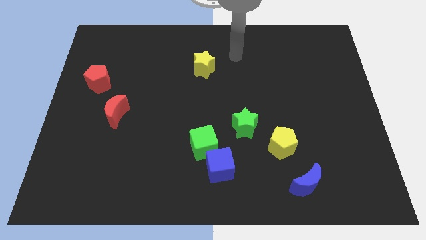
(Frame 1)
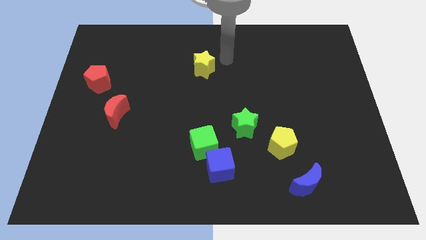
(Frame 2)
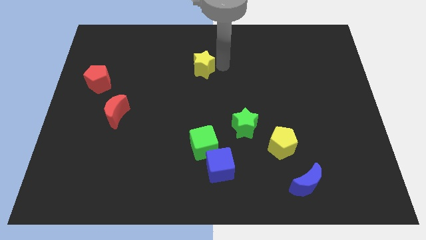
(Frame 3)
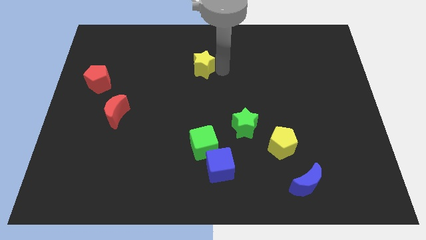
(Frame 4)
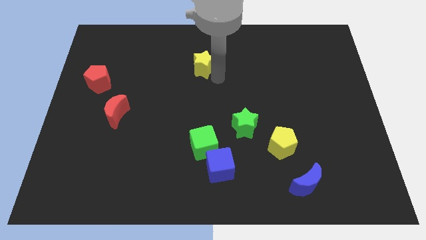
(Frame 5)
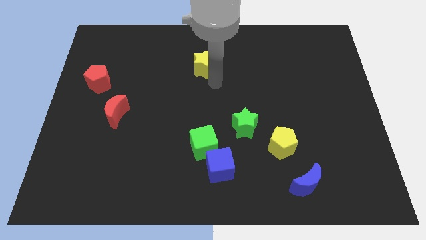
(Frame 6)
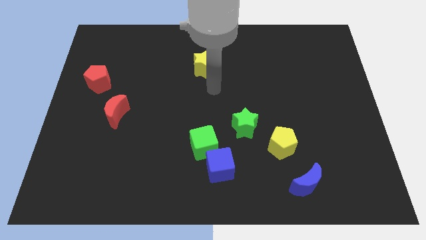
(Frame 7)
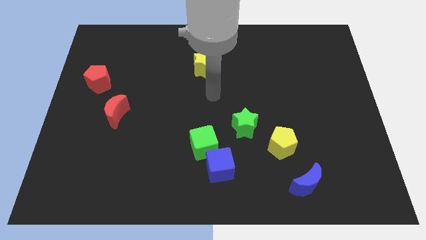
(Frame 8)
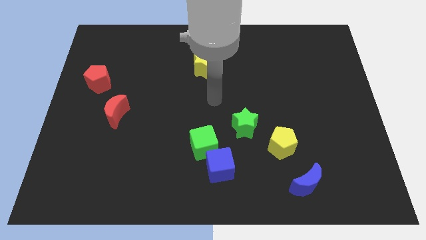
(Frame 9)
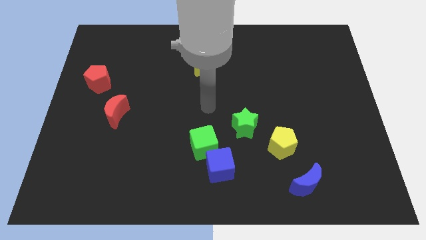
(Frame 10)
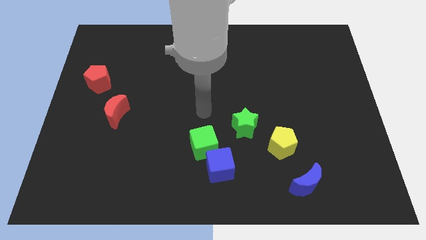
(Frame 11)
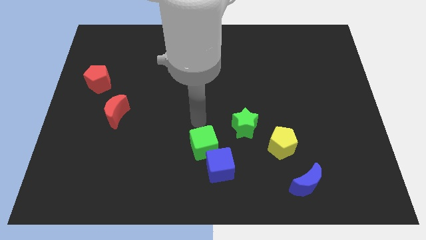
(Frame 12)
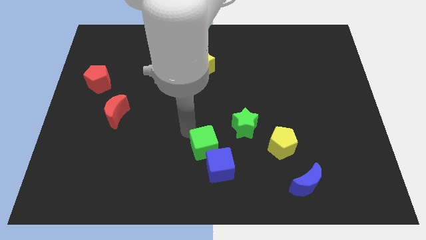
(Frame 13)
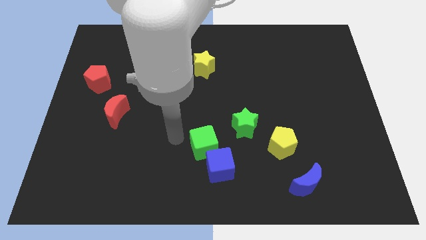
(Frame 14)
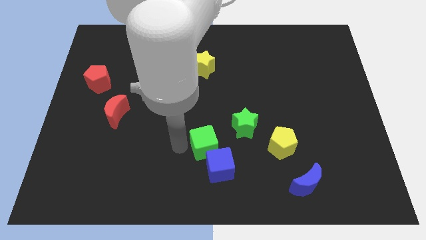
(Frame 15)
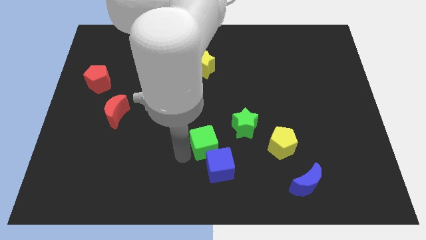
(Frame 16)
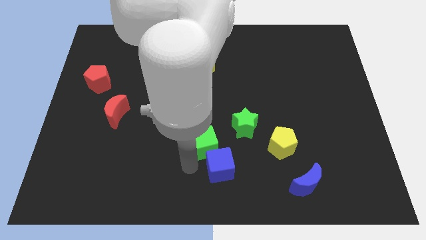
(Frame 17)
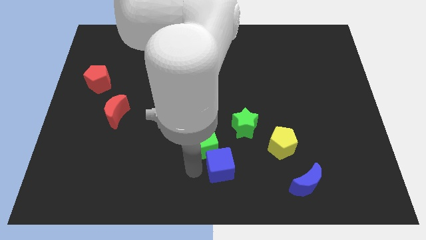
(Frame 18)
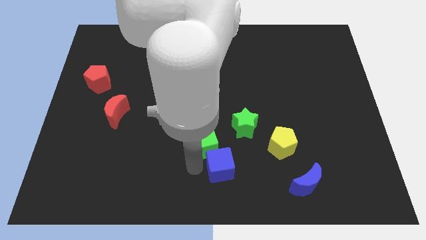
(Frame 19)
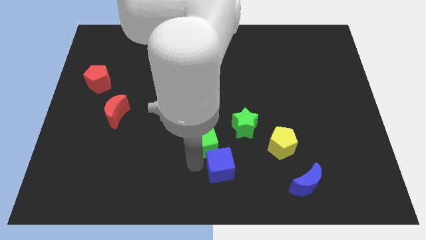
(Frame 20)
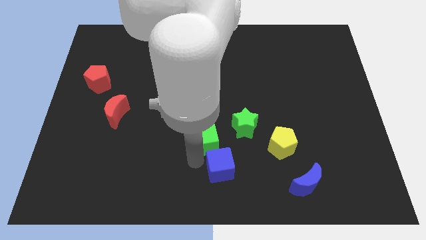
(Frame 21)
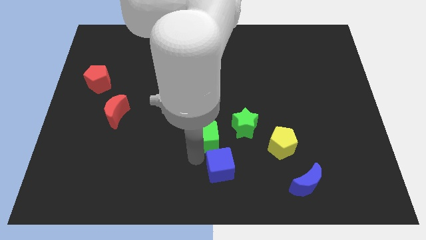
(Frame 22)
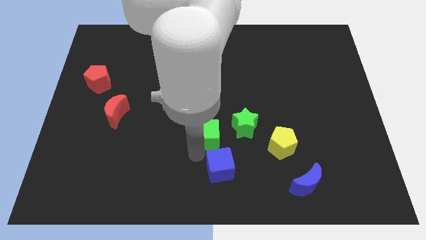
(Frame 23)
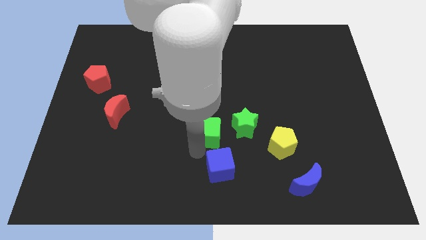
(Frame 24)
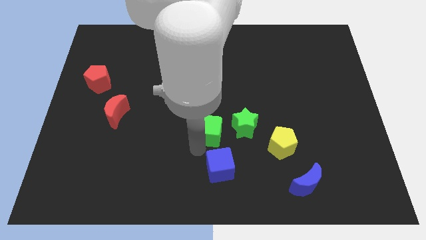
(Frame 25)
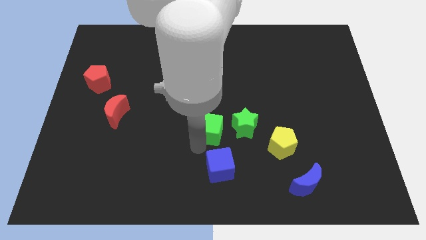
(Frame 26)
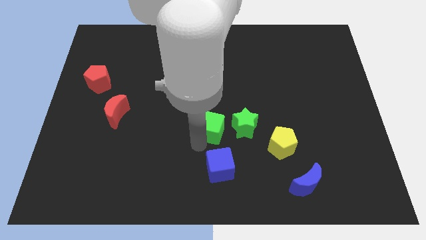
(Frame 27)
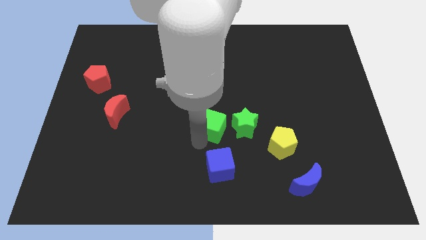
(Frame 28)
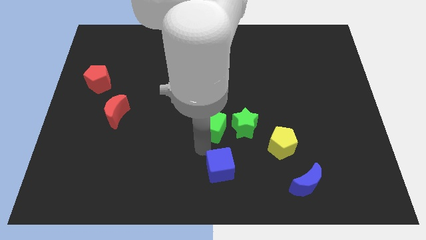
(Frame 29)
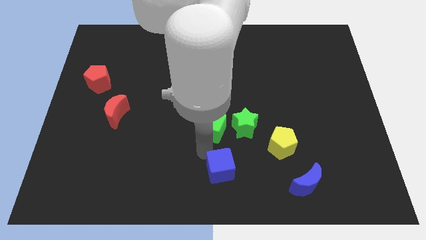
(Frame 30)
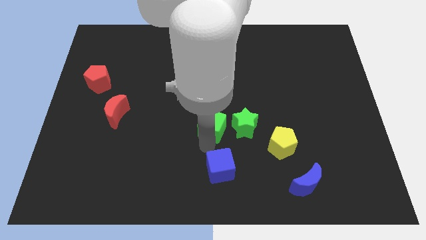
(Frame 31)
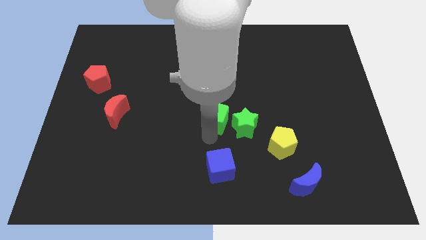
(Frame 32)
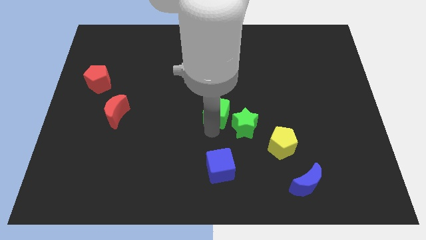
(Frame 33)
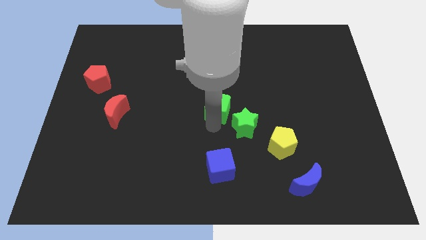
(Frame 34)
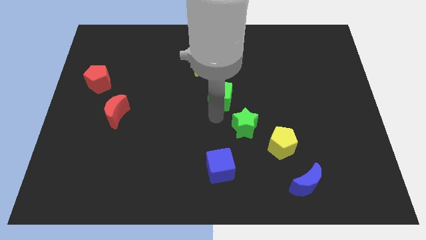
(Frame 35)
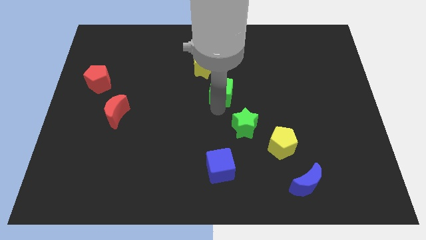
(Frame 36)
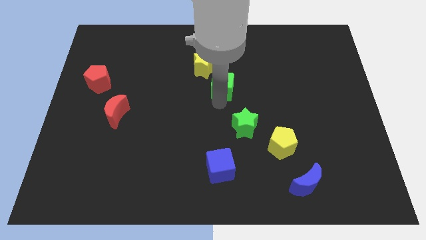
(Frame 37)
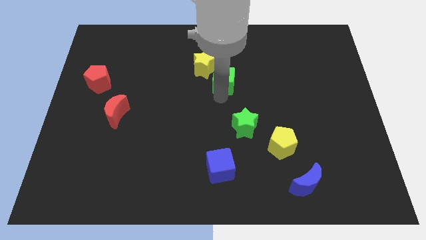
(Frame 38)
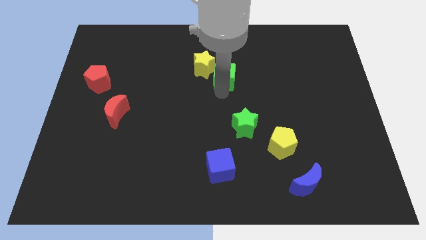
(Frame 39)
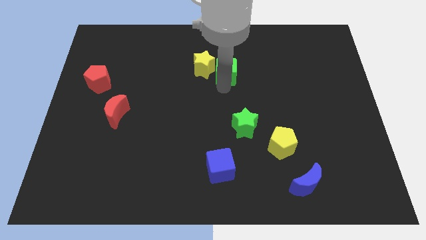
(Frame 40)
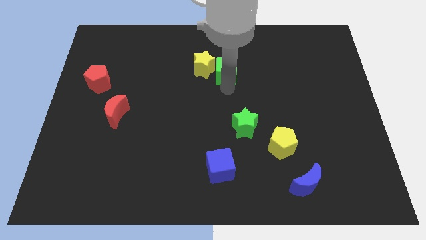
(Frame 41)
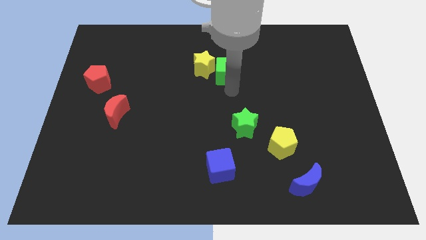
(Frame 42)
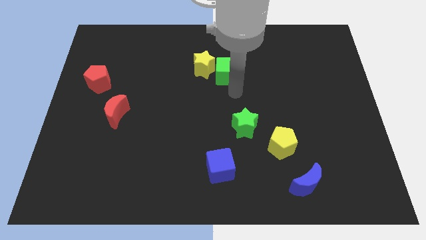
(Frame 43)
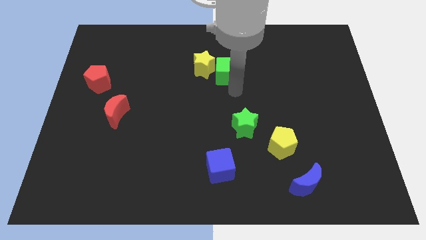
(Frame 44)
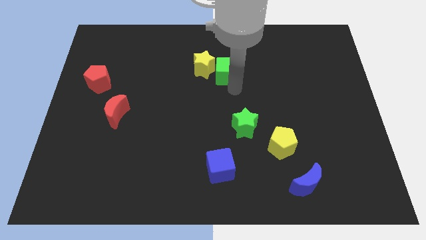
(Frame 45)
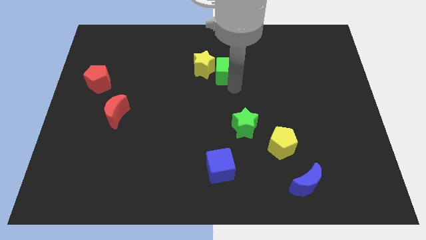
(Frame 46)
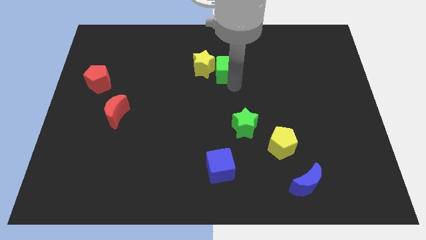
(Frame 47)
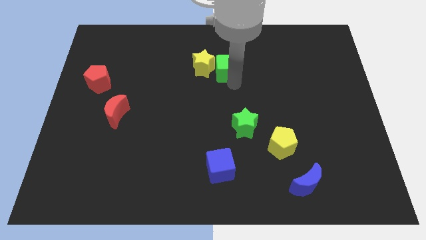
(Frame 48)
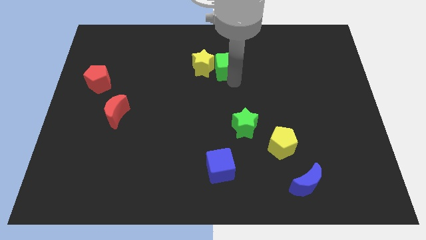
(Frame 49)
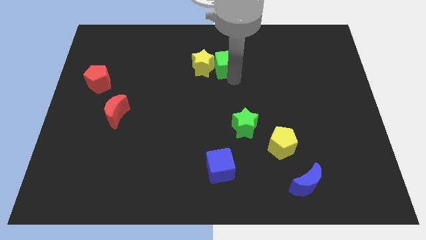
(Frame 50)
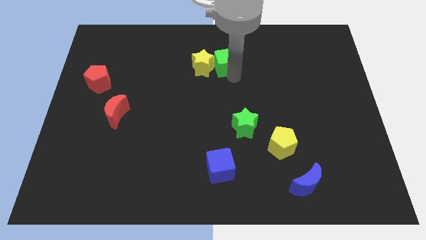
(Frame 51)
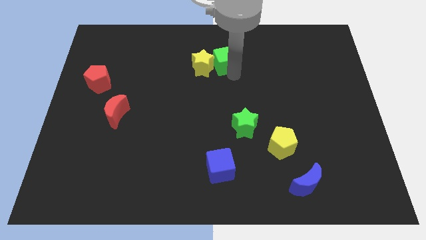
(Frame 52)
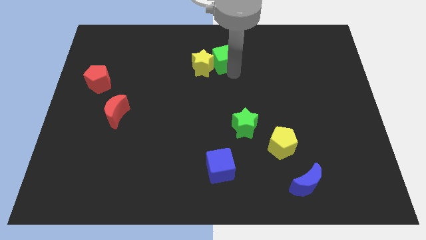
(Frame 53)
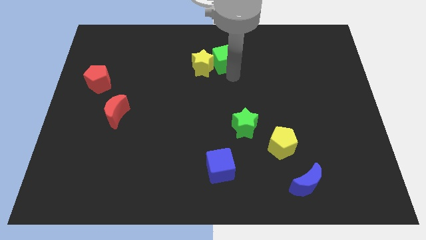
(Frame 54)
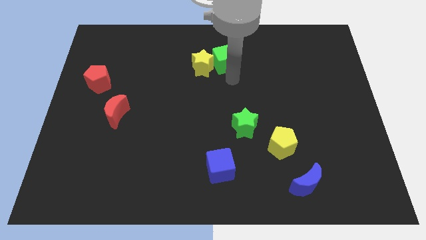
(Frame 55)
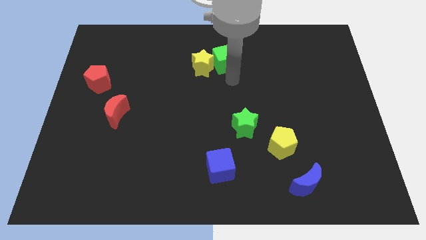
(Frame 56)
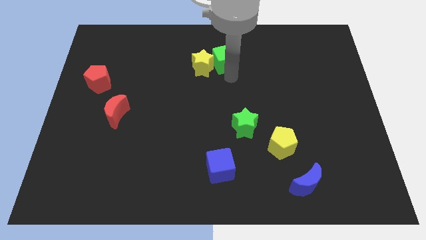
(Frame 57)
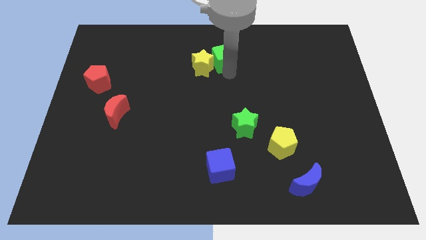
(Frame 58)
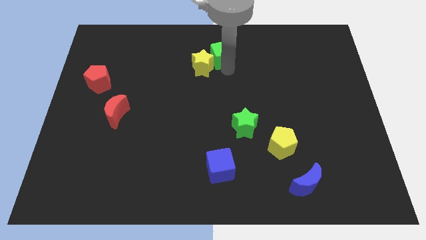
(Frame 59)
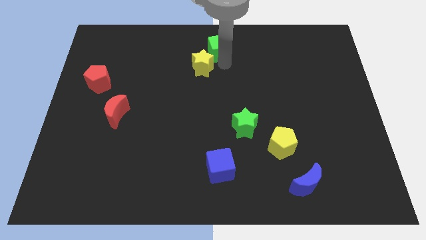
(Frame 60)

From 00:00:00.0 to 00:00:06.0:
put the green cube to the top

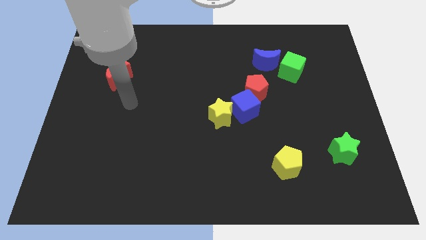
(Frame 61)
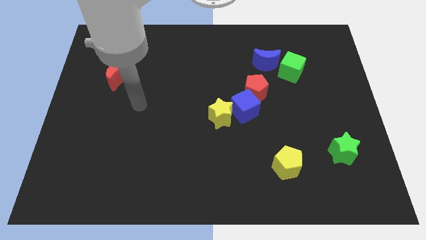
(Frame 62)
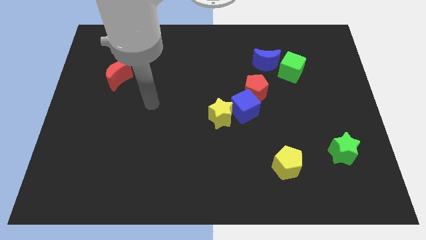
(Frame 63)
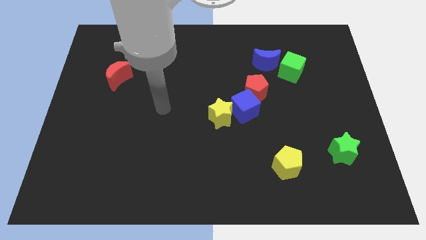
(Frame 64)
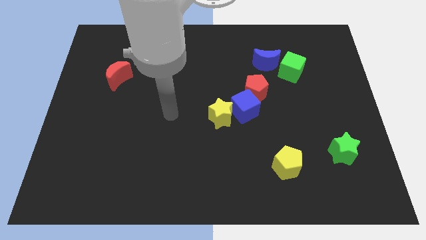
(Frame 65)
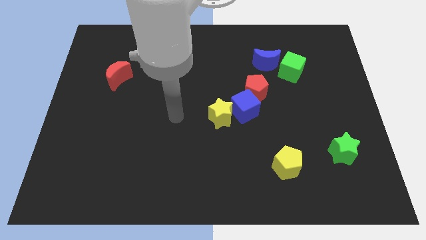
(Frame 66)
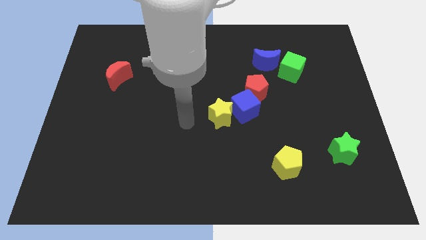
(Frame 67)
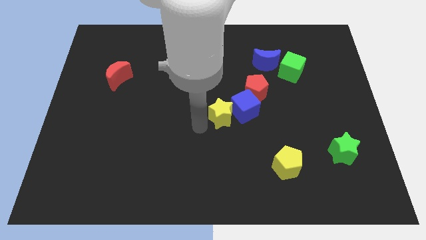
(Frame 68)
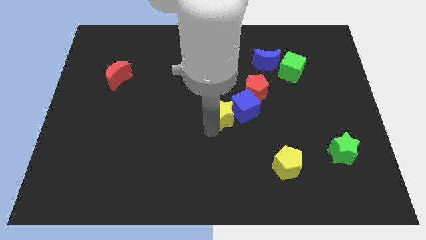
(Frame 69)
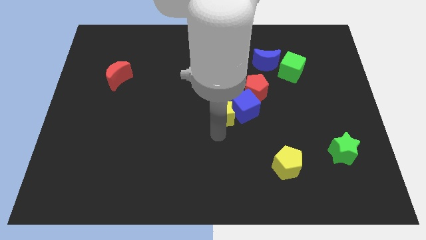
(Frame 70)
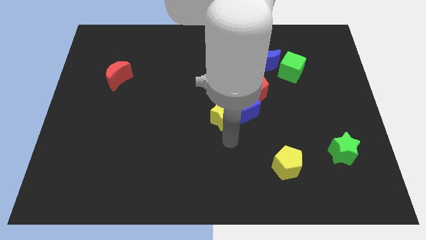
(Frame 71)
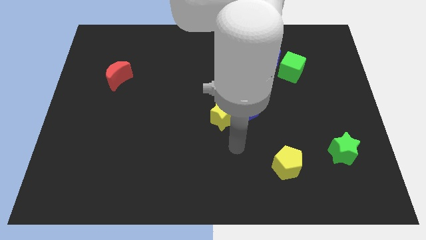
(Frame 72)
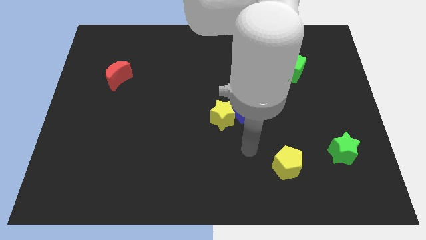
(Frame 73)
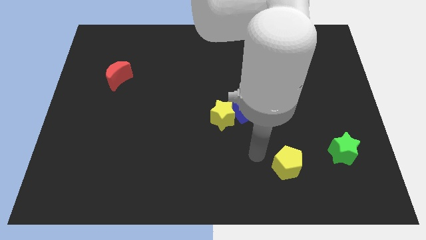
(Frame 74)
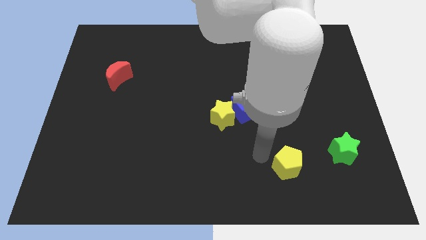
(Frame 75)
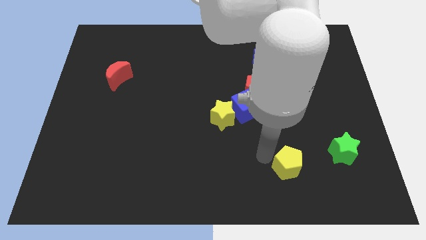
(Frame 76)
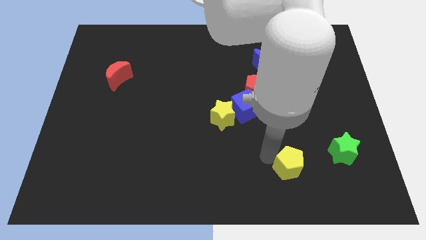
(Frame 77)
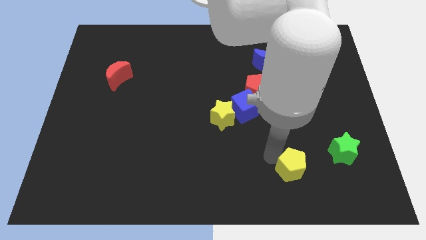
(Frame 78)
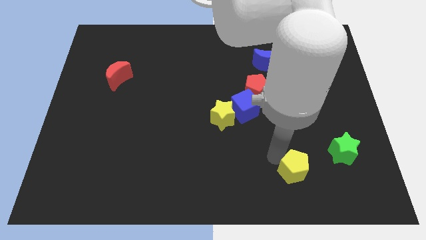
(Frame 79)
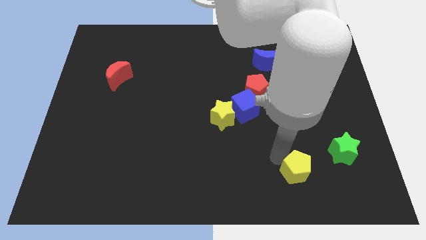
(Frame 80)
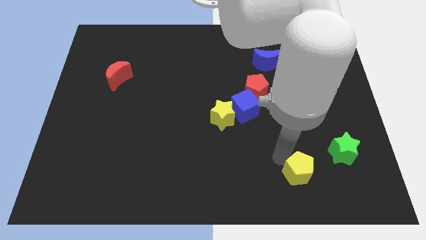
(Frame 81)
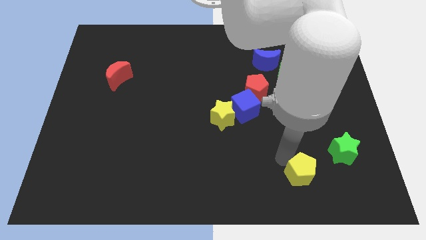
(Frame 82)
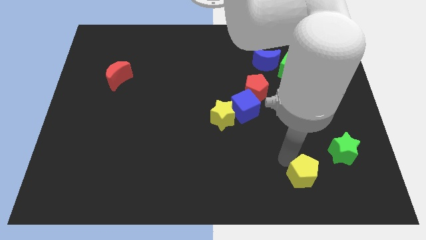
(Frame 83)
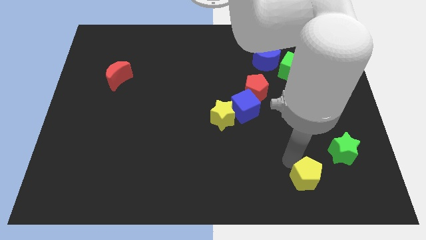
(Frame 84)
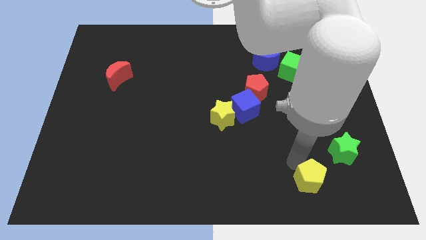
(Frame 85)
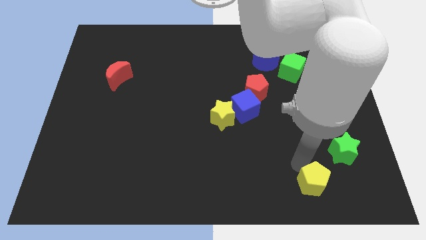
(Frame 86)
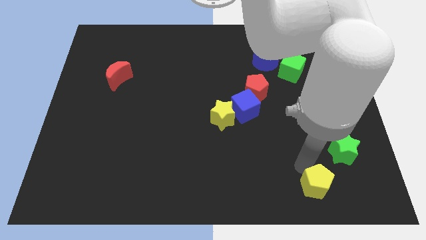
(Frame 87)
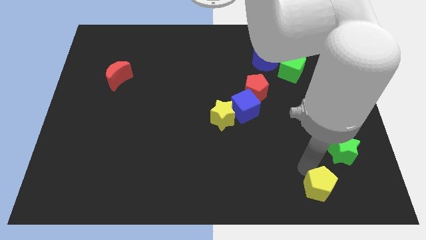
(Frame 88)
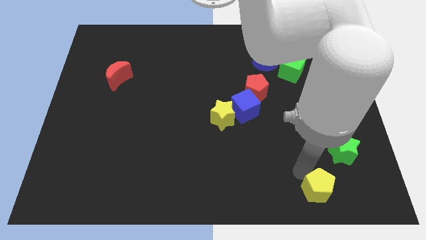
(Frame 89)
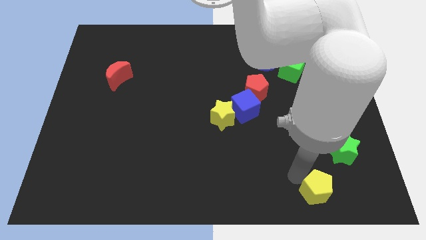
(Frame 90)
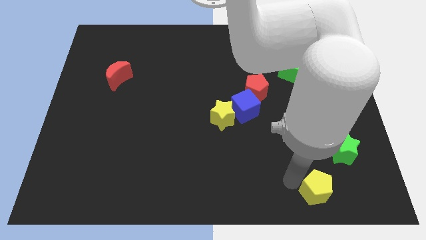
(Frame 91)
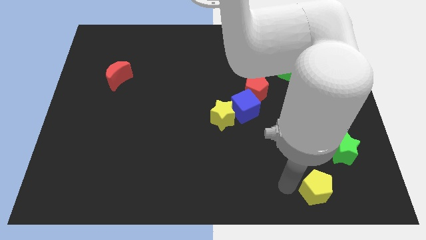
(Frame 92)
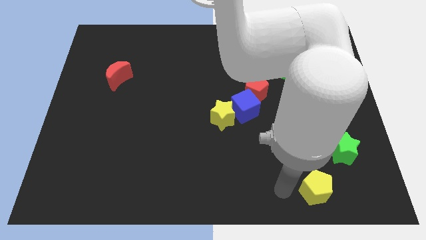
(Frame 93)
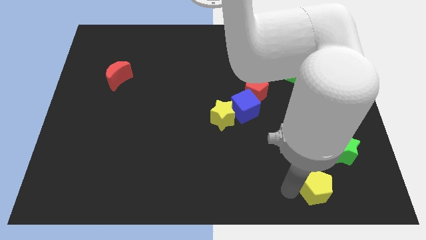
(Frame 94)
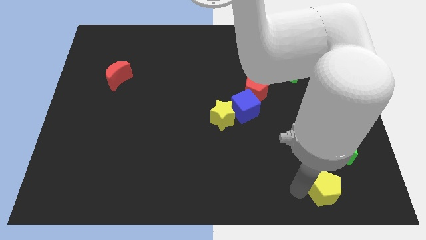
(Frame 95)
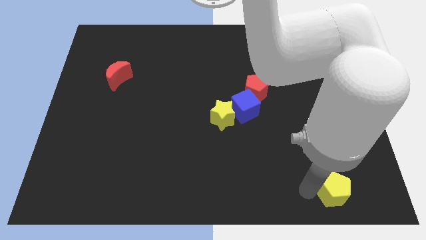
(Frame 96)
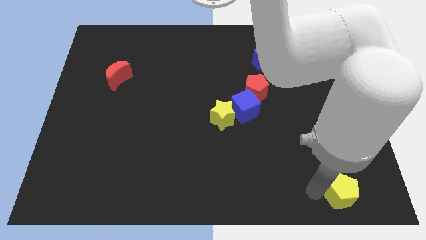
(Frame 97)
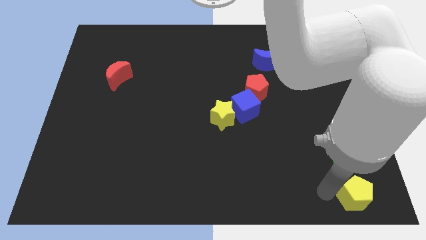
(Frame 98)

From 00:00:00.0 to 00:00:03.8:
push the yellow pentagon to the bottom right corner
